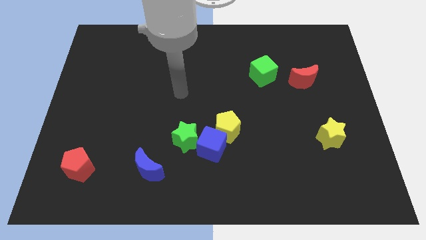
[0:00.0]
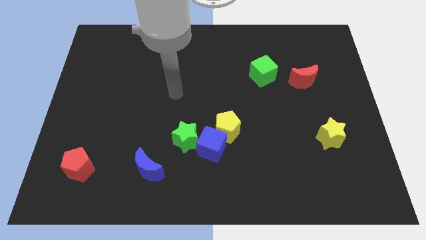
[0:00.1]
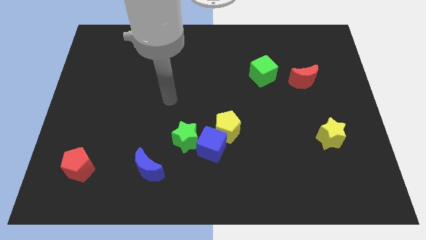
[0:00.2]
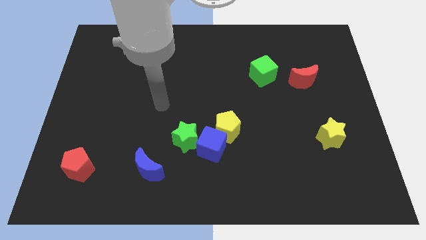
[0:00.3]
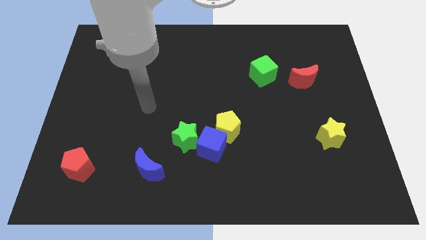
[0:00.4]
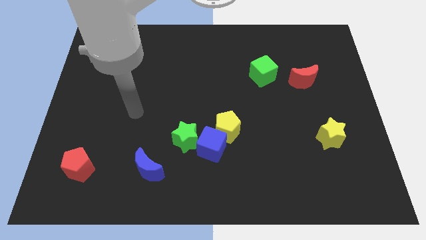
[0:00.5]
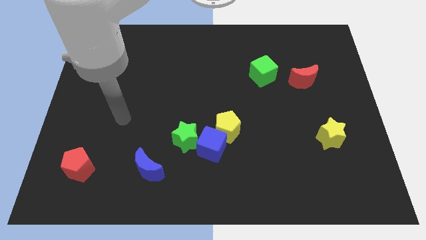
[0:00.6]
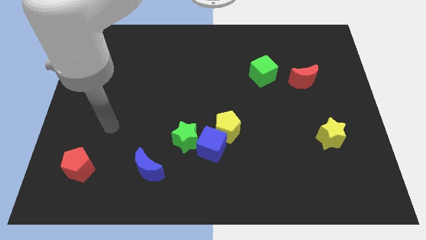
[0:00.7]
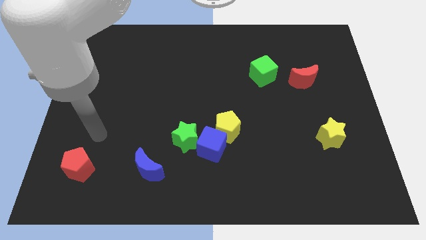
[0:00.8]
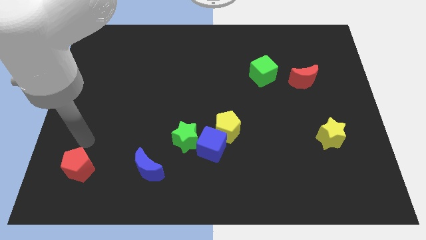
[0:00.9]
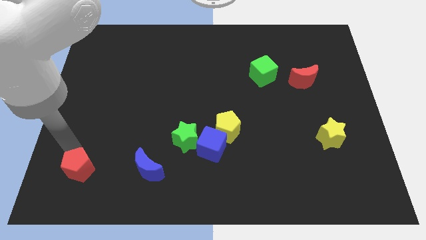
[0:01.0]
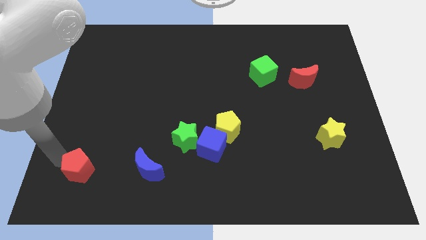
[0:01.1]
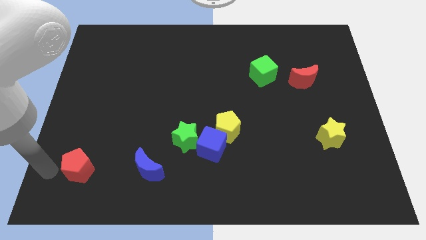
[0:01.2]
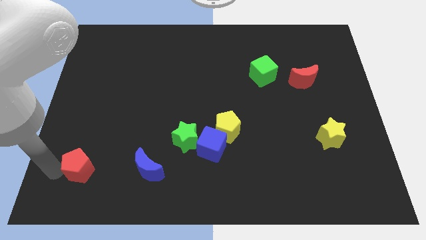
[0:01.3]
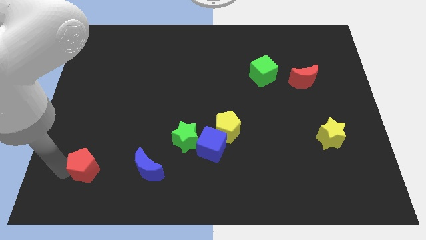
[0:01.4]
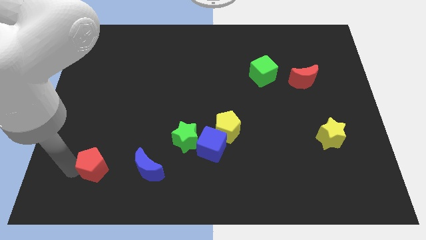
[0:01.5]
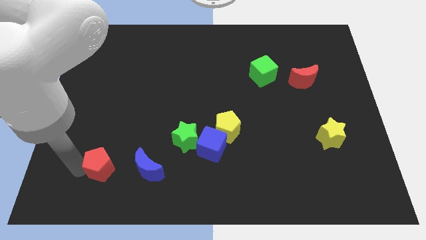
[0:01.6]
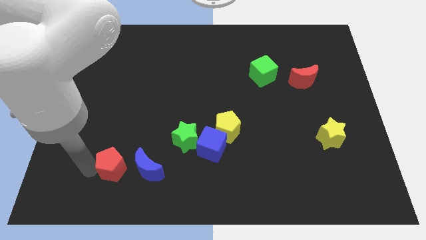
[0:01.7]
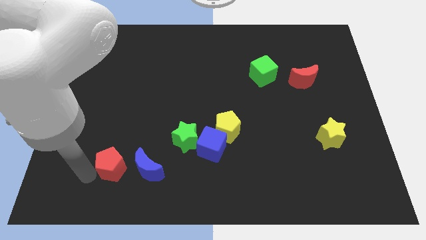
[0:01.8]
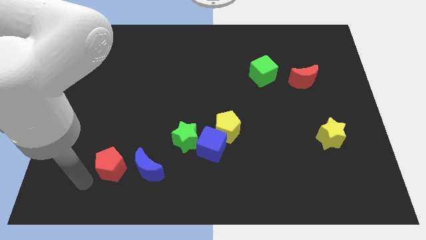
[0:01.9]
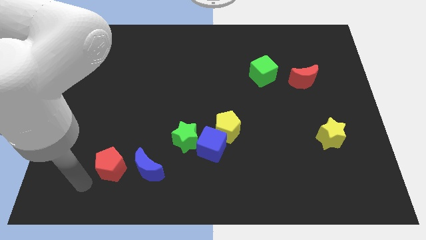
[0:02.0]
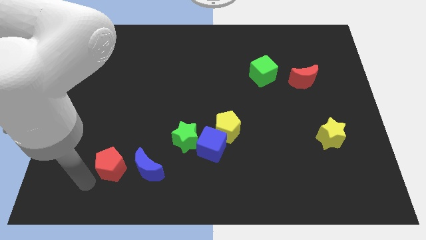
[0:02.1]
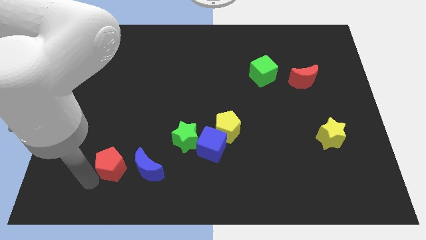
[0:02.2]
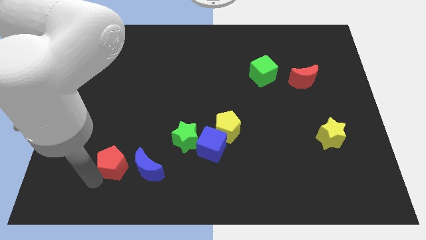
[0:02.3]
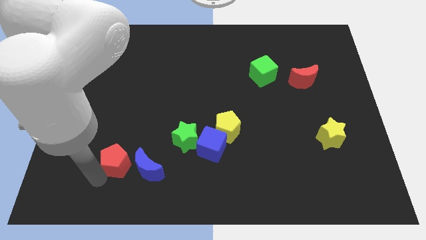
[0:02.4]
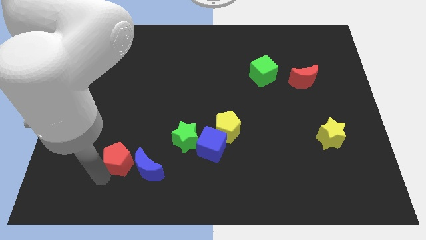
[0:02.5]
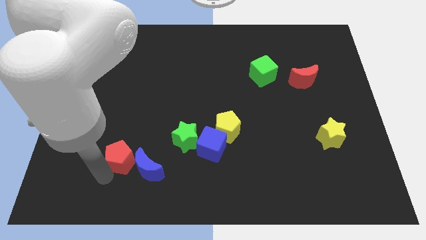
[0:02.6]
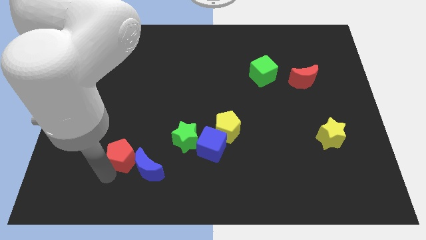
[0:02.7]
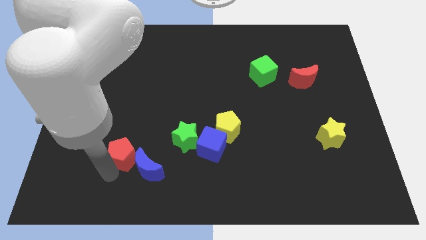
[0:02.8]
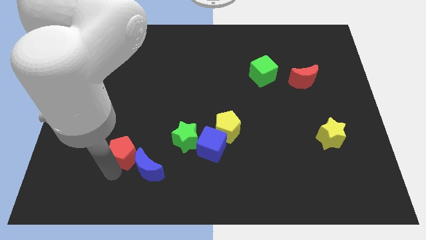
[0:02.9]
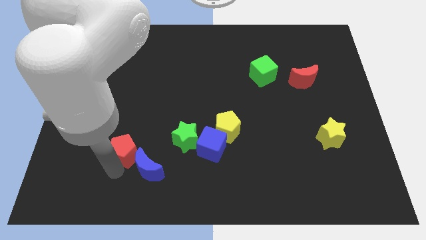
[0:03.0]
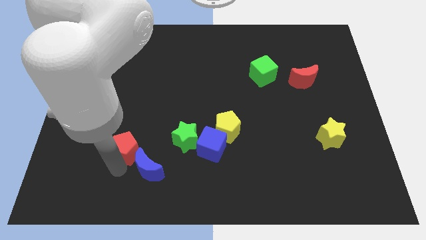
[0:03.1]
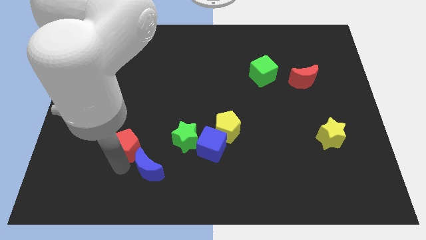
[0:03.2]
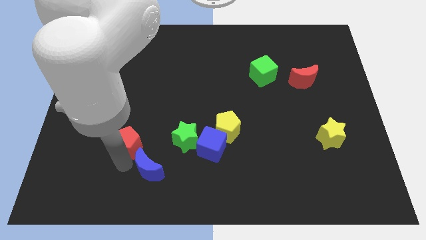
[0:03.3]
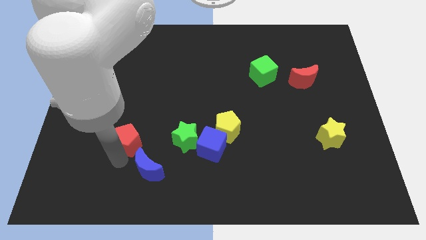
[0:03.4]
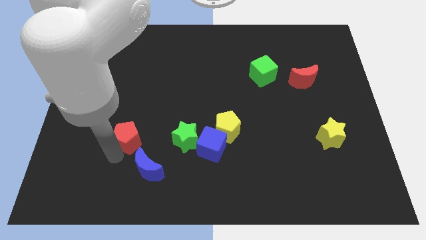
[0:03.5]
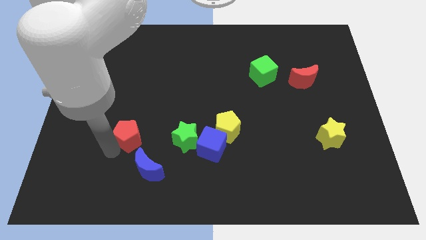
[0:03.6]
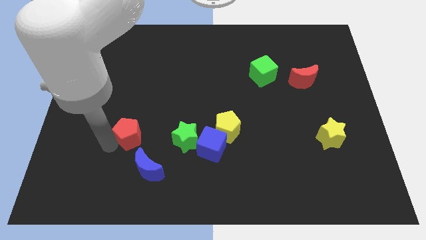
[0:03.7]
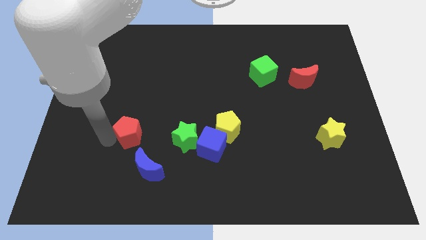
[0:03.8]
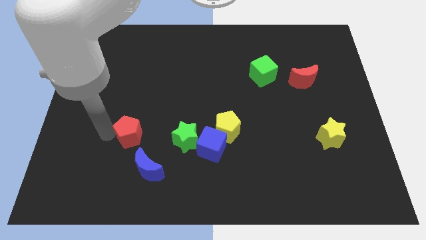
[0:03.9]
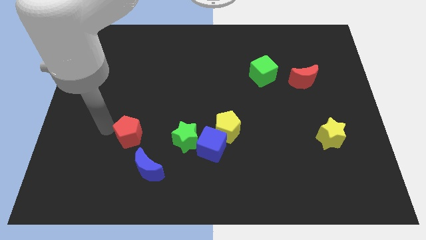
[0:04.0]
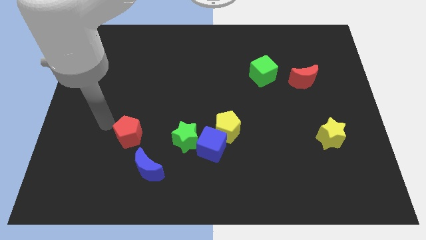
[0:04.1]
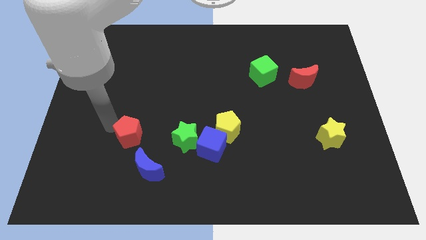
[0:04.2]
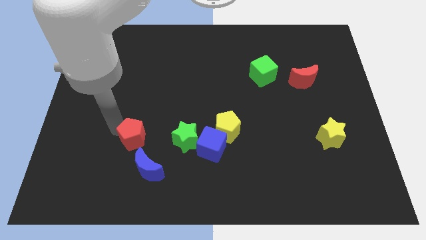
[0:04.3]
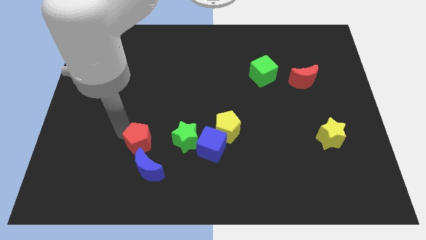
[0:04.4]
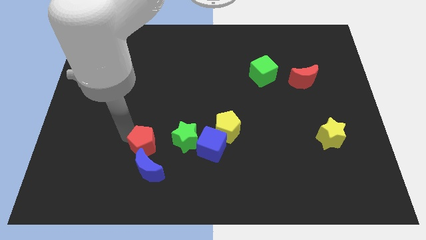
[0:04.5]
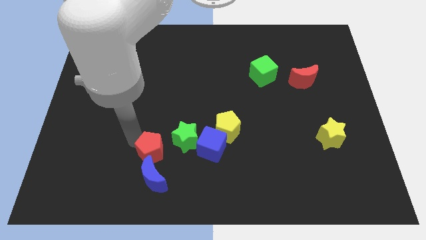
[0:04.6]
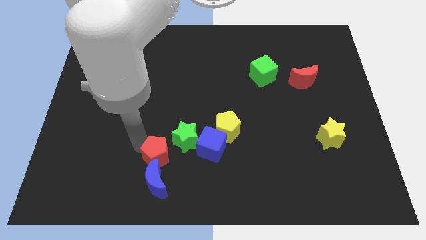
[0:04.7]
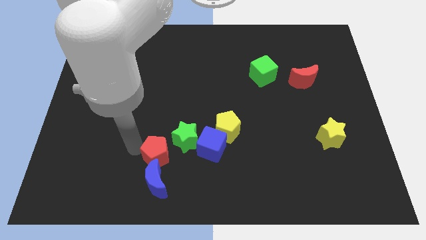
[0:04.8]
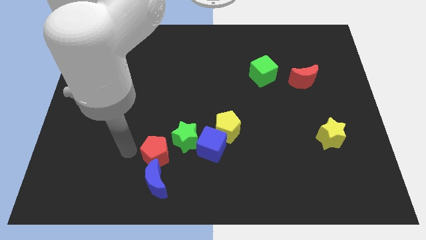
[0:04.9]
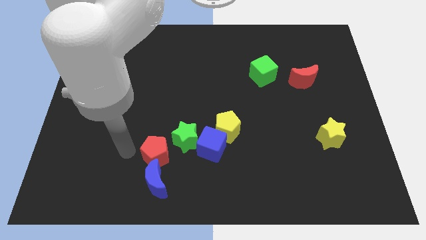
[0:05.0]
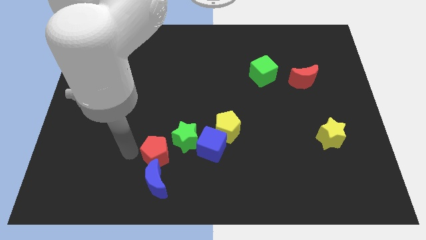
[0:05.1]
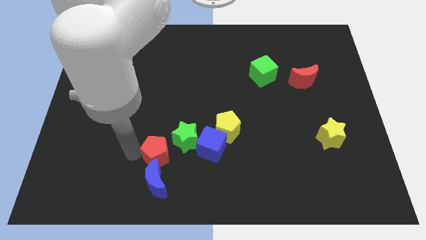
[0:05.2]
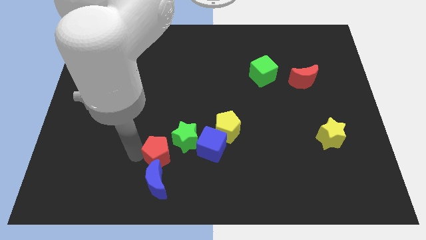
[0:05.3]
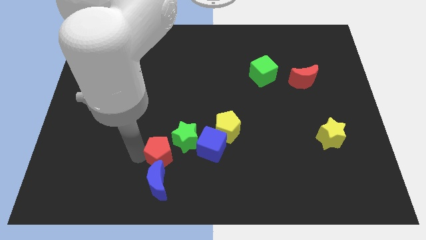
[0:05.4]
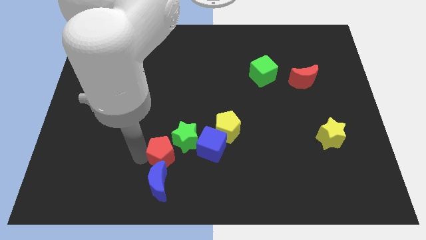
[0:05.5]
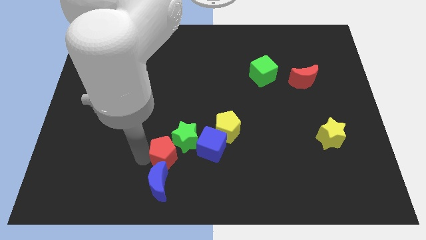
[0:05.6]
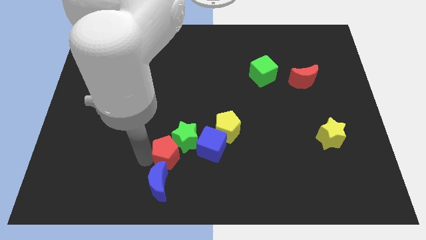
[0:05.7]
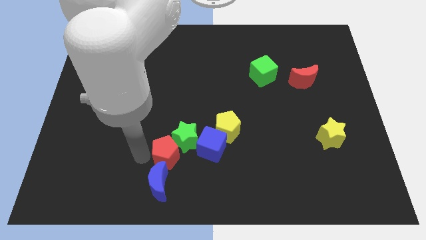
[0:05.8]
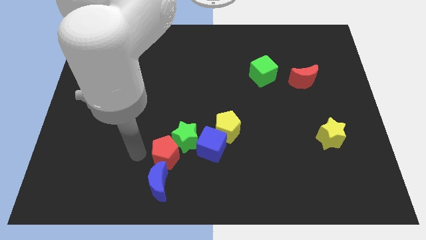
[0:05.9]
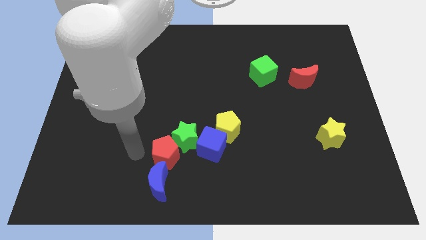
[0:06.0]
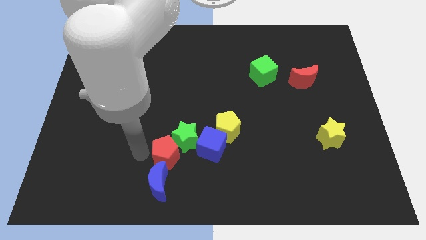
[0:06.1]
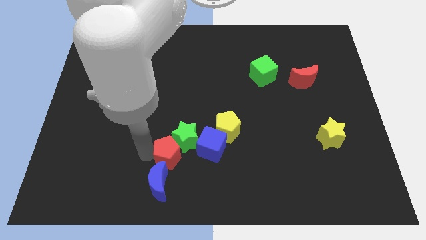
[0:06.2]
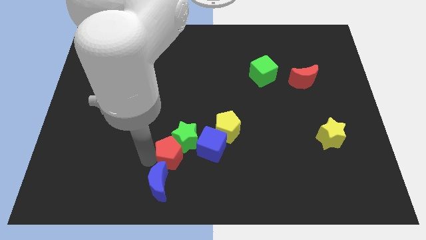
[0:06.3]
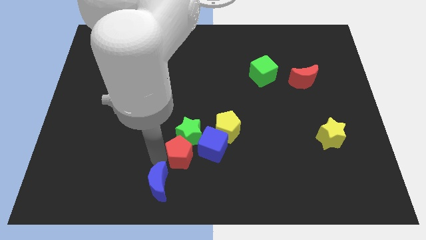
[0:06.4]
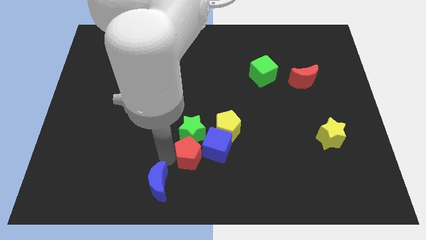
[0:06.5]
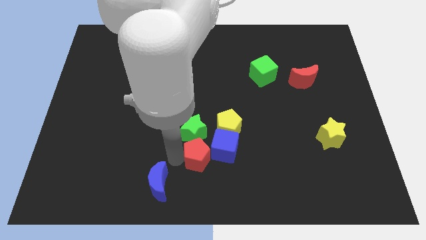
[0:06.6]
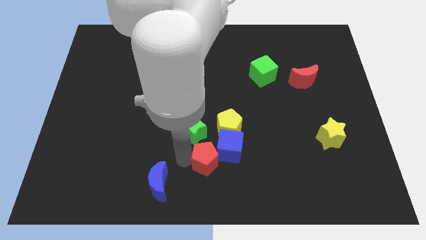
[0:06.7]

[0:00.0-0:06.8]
push the red pentagon next to the blue cube
